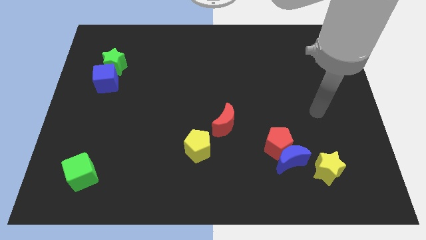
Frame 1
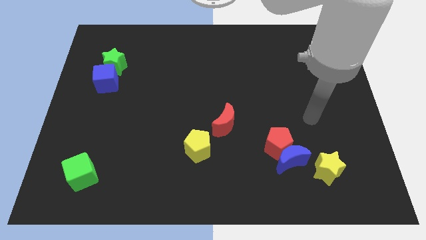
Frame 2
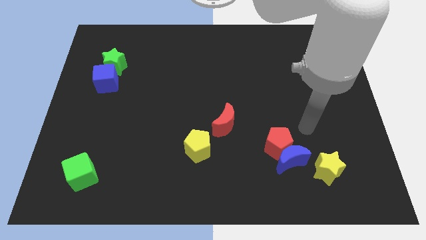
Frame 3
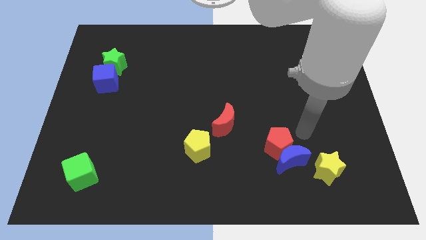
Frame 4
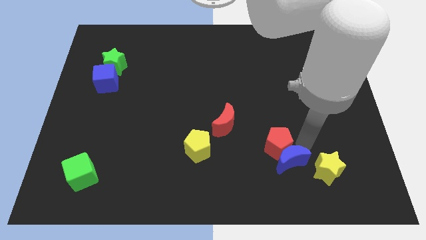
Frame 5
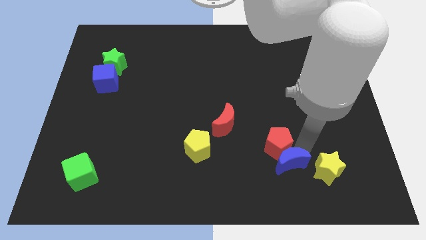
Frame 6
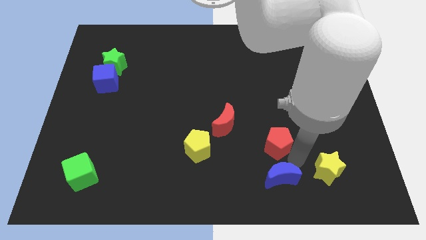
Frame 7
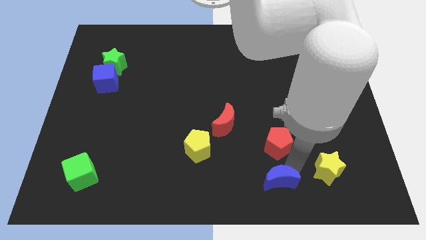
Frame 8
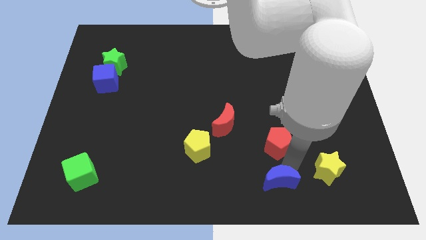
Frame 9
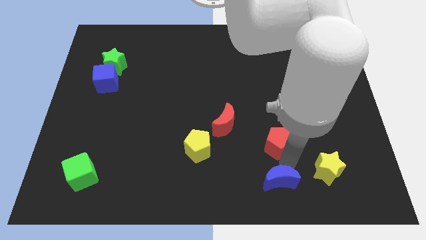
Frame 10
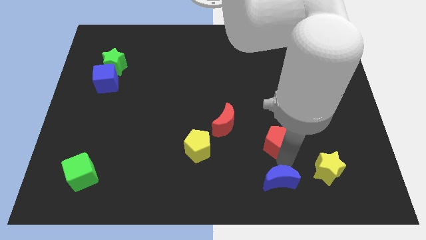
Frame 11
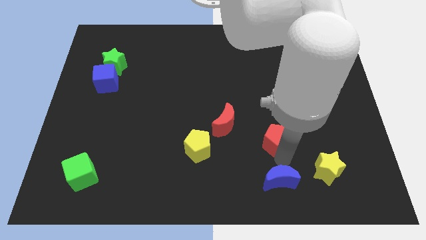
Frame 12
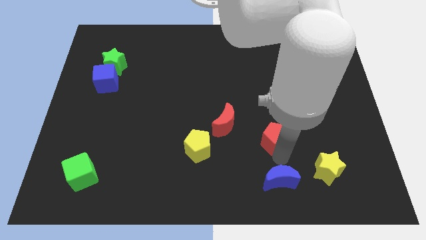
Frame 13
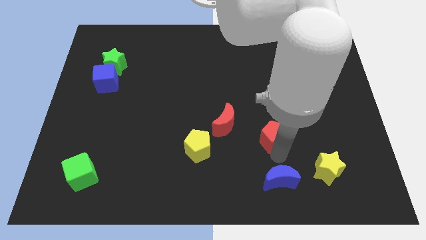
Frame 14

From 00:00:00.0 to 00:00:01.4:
move the red pentagon away from the blue moon

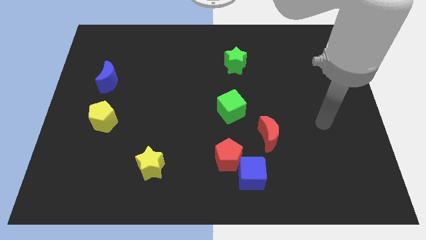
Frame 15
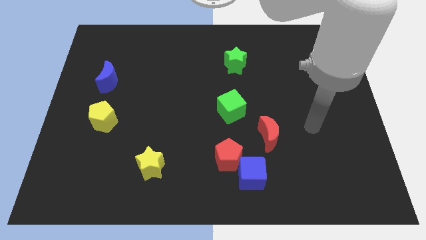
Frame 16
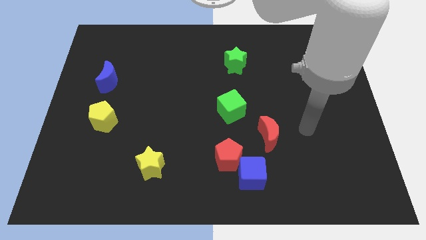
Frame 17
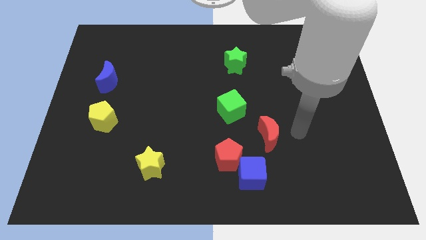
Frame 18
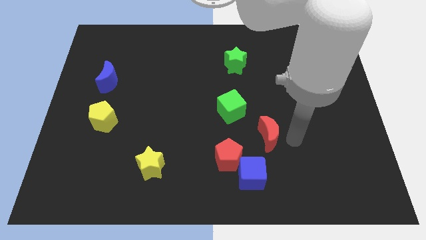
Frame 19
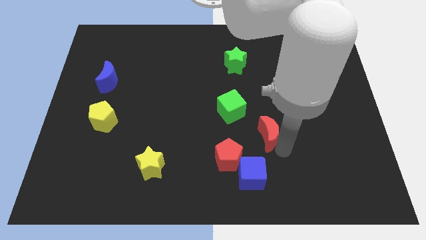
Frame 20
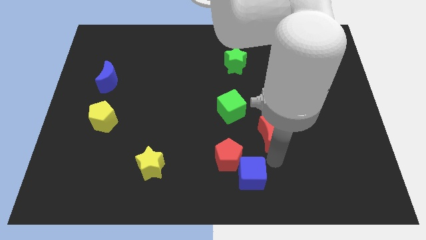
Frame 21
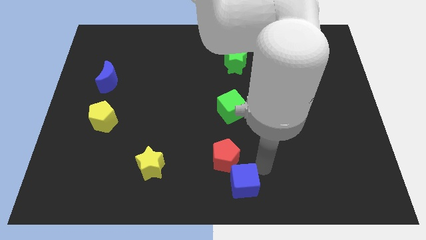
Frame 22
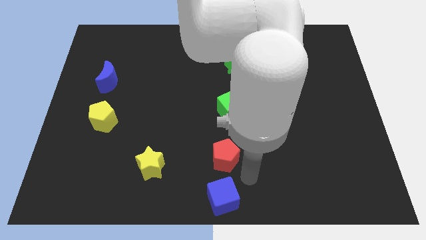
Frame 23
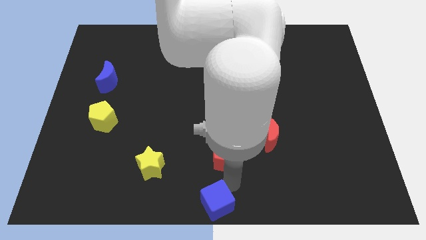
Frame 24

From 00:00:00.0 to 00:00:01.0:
pull the red pentagon apart from the blue cube

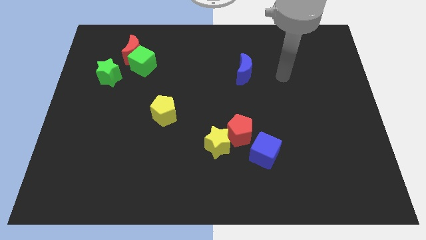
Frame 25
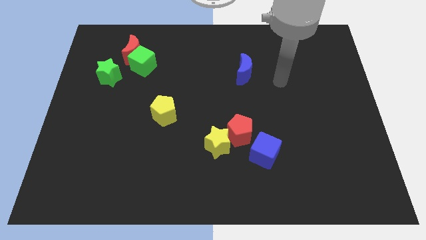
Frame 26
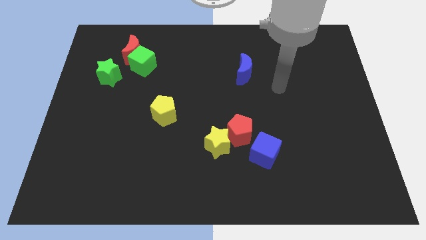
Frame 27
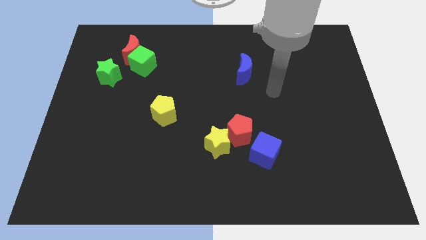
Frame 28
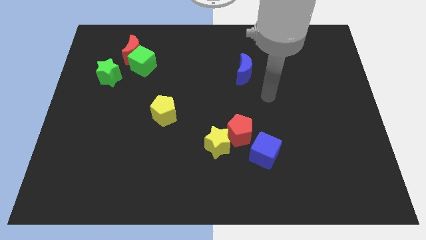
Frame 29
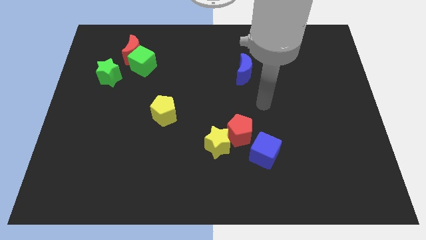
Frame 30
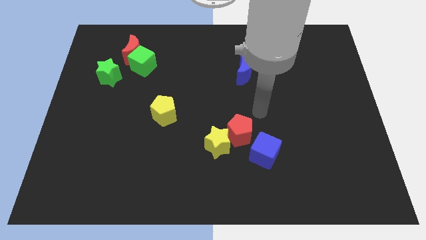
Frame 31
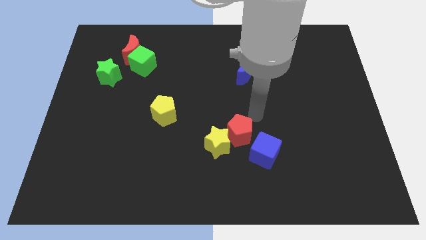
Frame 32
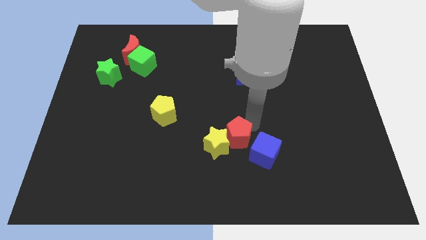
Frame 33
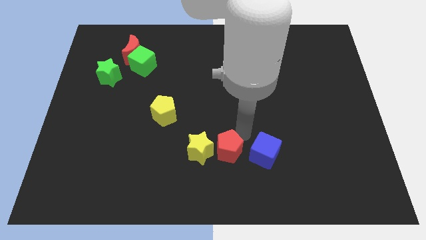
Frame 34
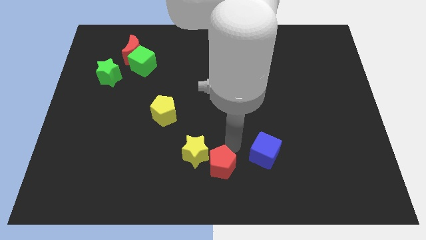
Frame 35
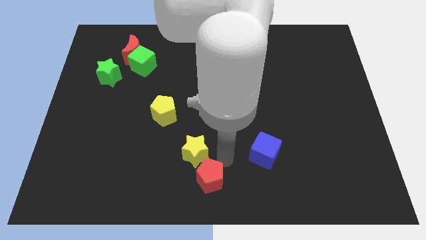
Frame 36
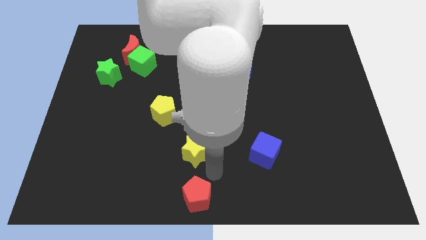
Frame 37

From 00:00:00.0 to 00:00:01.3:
pull the yellow star apart from the red pentagon

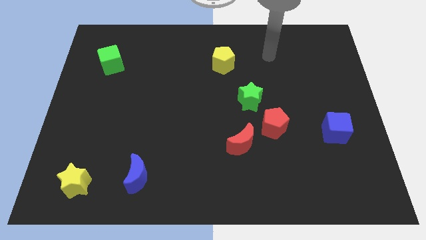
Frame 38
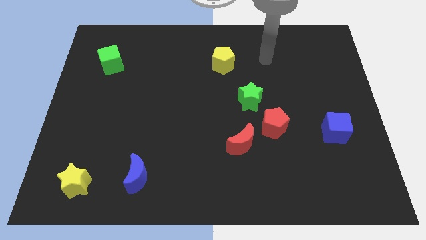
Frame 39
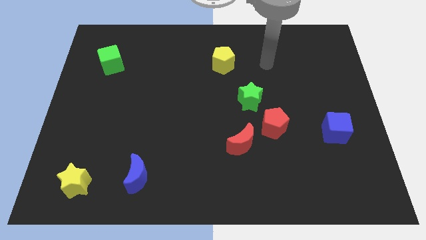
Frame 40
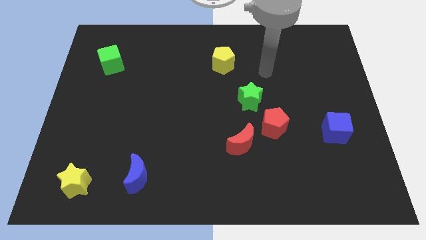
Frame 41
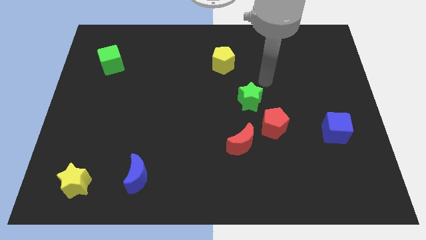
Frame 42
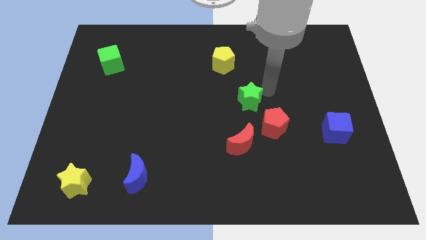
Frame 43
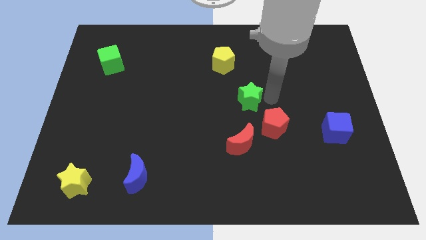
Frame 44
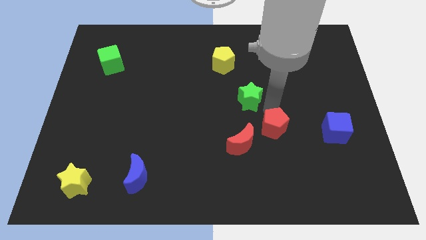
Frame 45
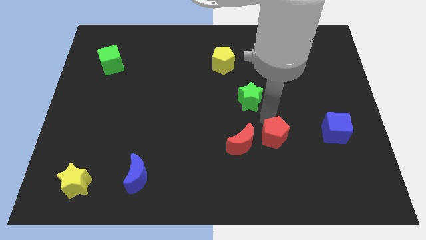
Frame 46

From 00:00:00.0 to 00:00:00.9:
separate the green star from the red pentagon

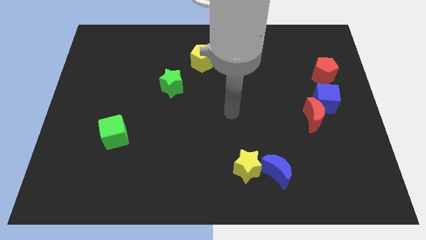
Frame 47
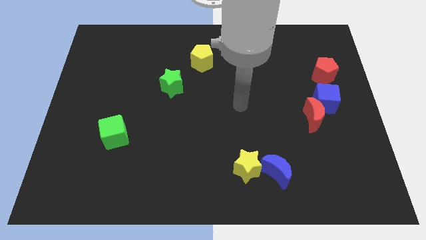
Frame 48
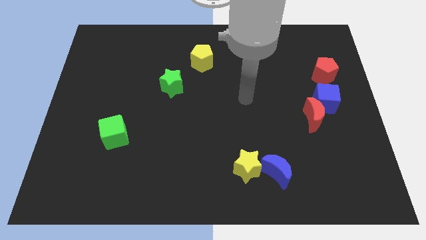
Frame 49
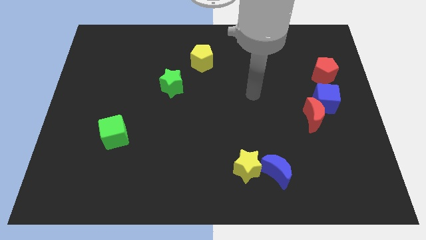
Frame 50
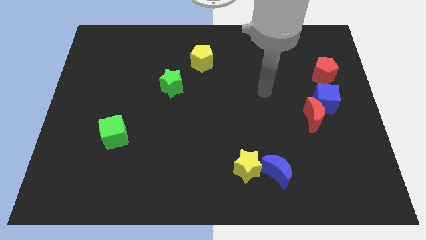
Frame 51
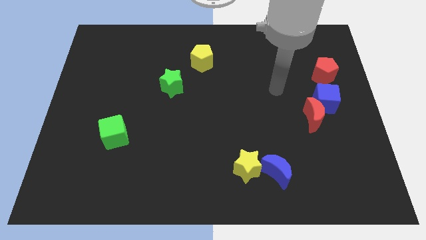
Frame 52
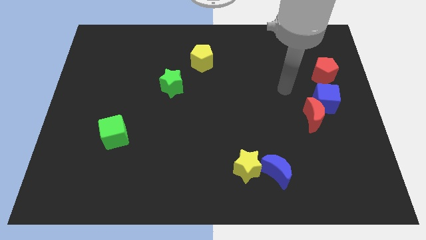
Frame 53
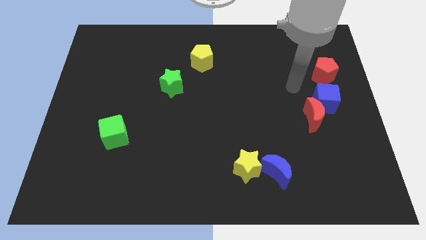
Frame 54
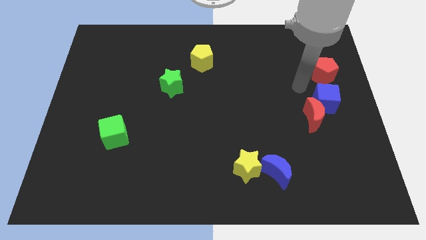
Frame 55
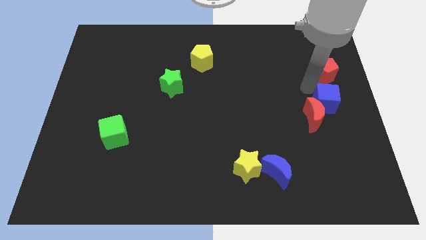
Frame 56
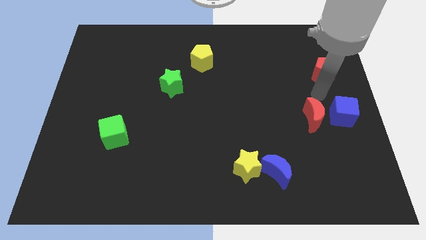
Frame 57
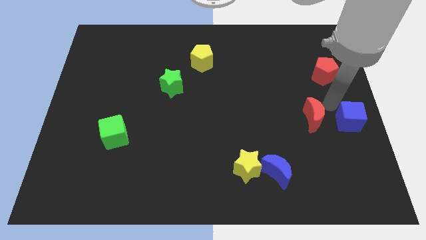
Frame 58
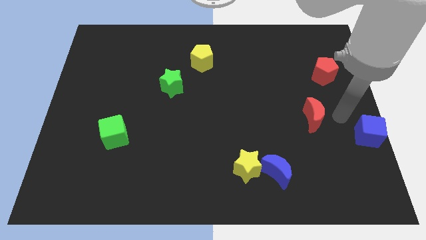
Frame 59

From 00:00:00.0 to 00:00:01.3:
separate the red moon from the blue cube

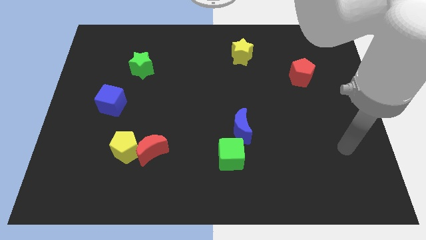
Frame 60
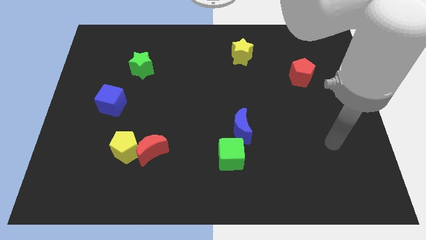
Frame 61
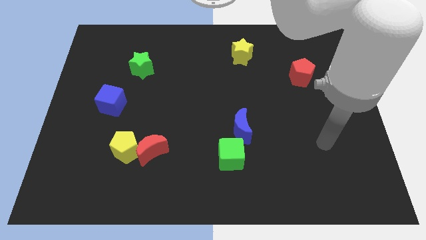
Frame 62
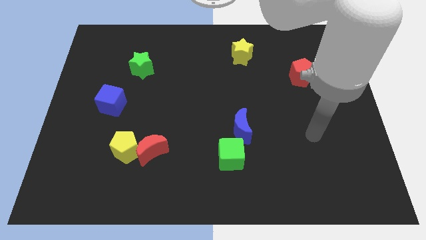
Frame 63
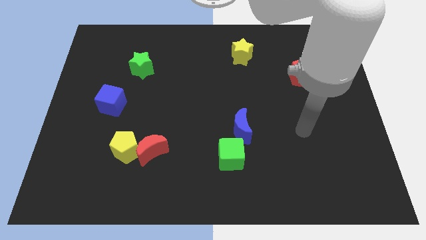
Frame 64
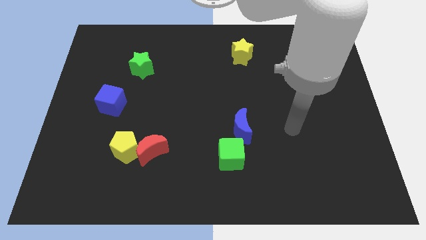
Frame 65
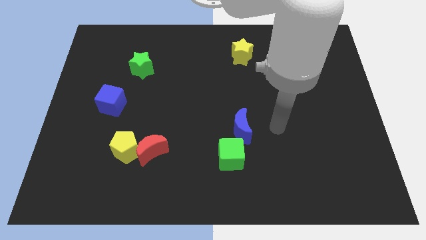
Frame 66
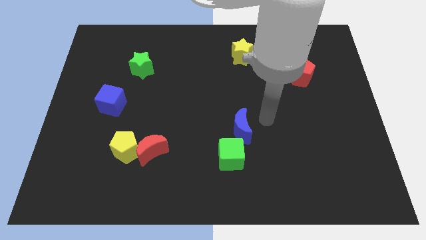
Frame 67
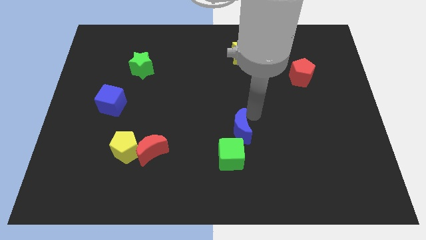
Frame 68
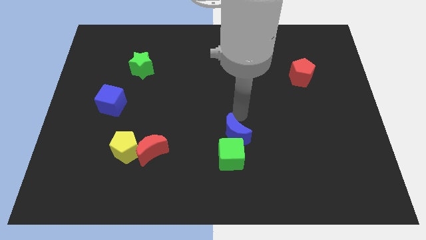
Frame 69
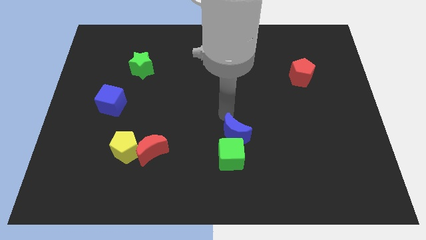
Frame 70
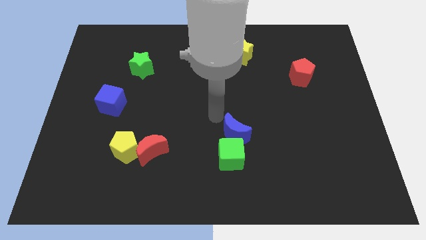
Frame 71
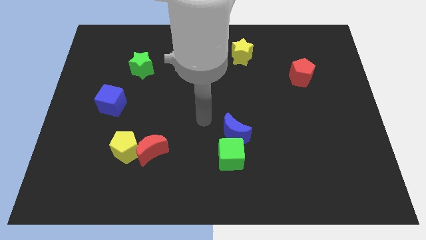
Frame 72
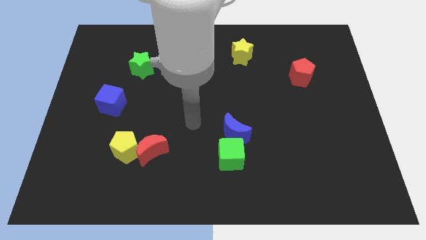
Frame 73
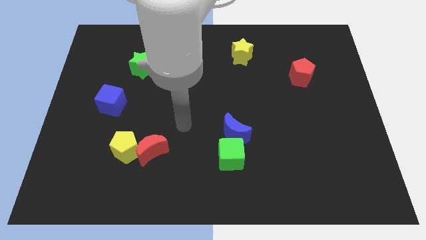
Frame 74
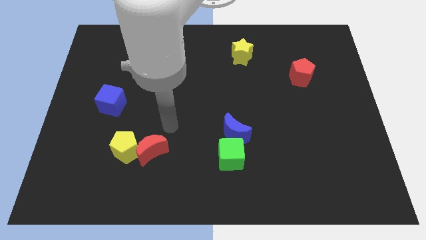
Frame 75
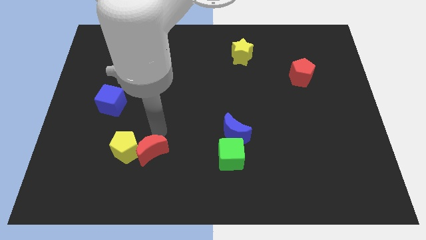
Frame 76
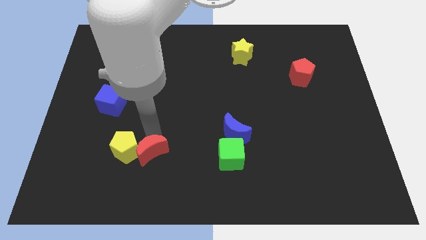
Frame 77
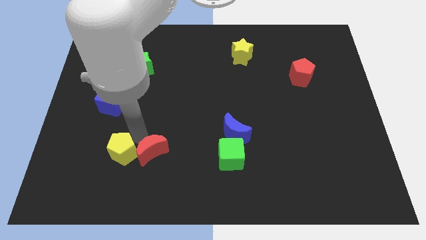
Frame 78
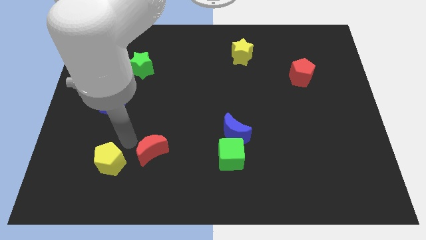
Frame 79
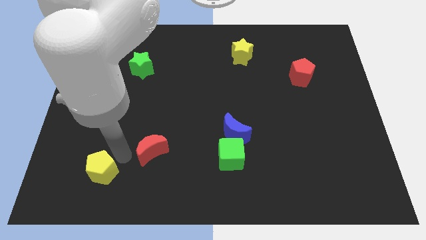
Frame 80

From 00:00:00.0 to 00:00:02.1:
separate the red moon from the yellow pentagon

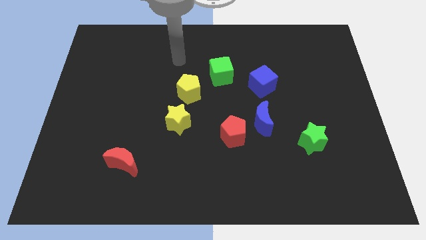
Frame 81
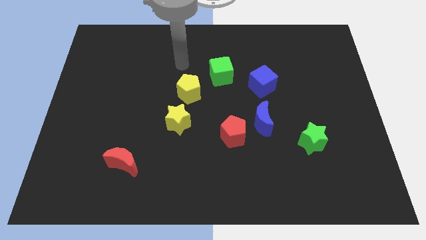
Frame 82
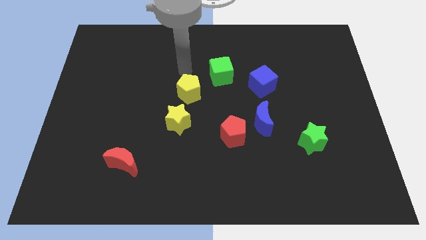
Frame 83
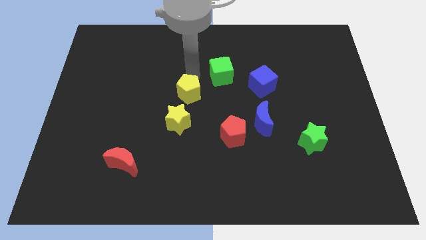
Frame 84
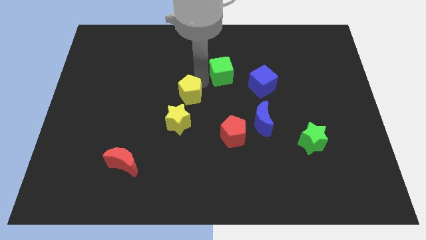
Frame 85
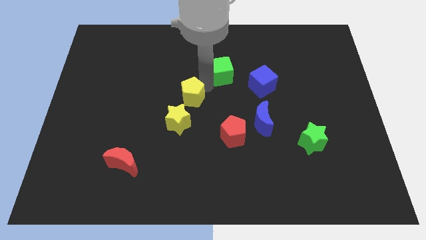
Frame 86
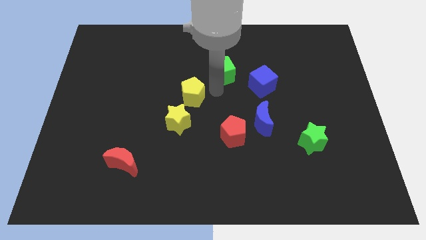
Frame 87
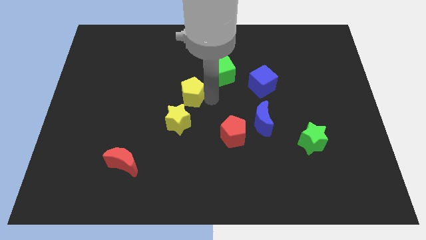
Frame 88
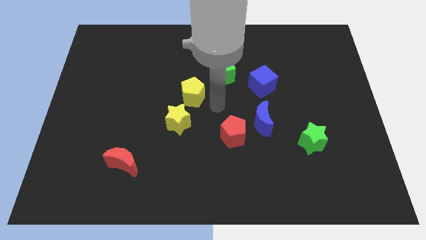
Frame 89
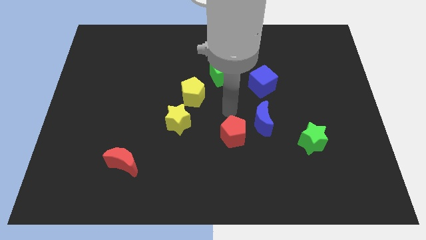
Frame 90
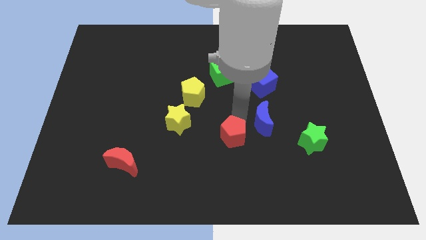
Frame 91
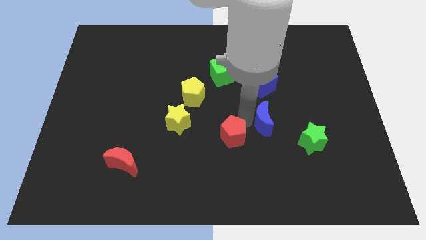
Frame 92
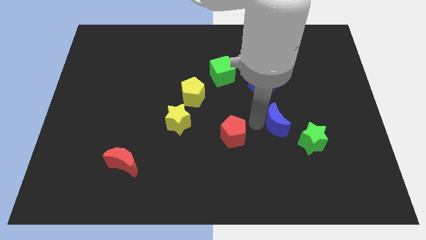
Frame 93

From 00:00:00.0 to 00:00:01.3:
pull the red pentagon apart from the blue moon
